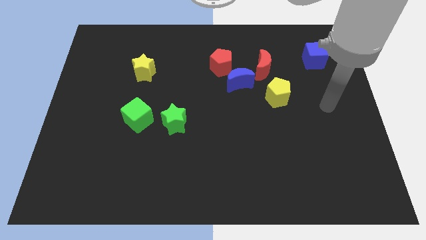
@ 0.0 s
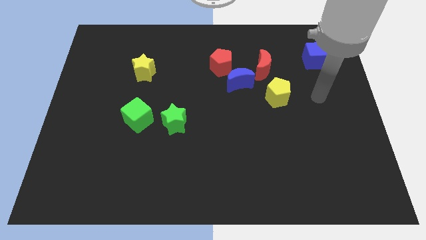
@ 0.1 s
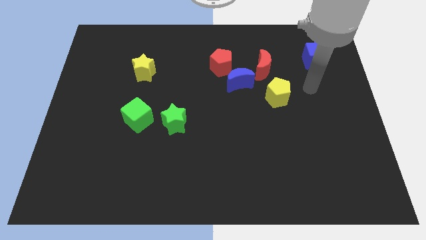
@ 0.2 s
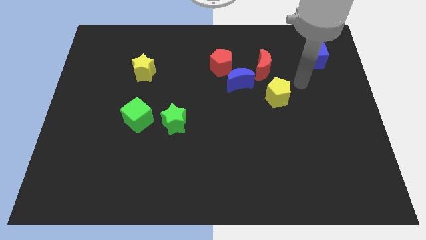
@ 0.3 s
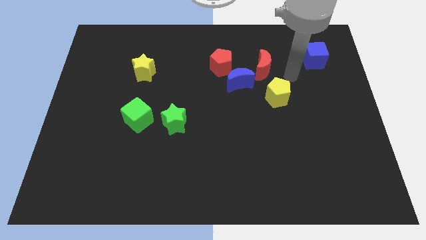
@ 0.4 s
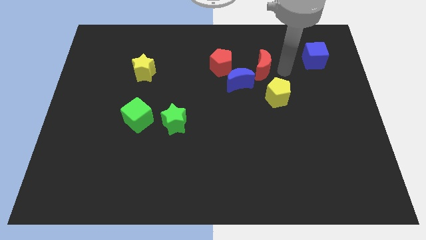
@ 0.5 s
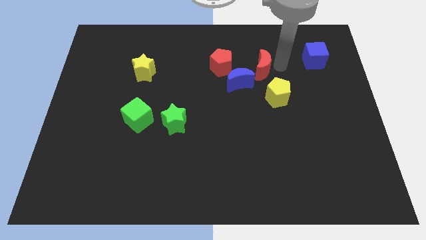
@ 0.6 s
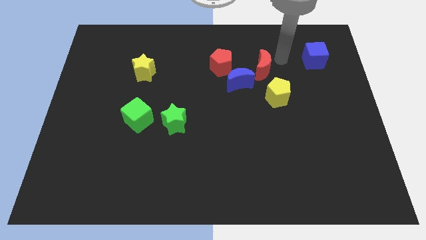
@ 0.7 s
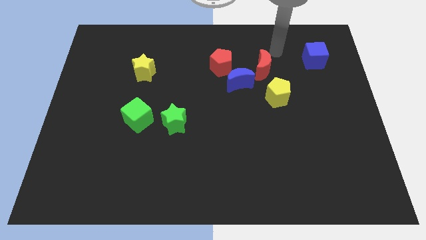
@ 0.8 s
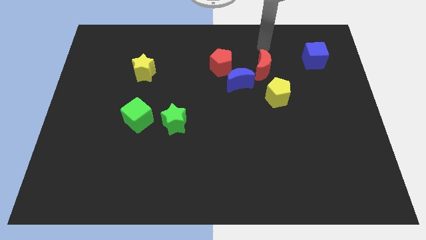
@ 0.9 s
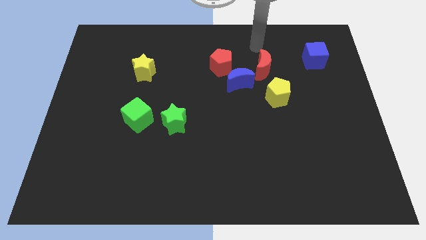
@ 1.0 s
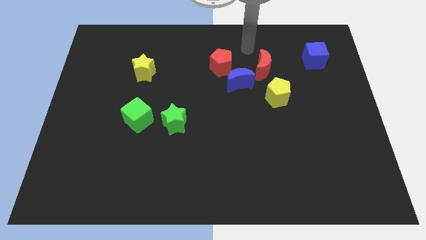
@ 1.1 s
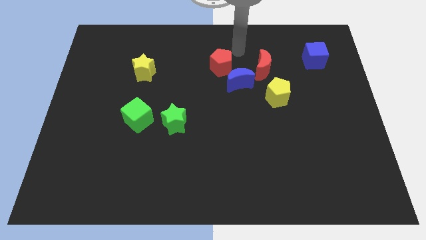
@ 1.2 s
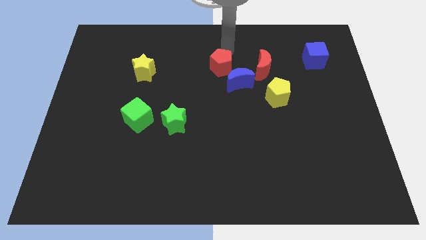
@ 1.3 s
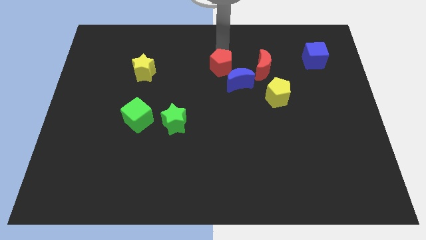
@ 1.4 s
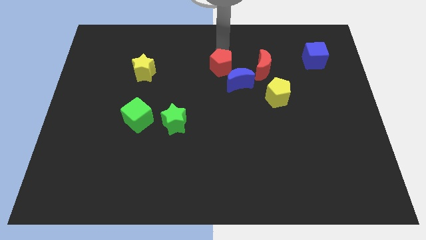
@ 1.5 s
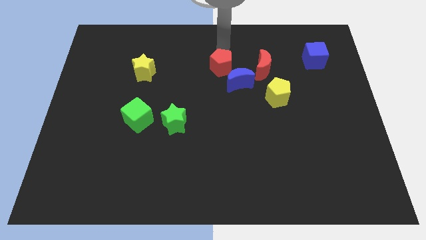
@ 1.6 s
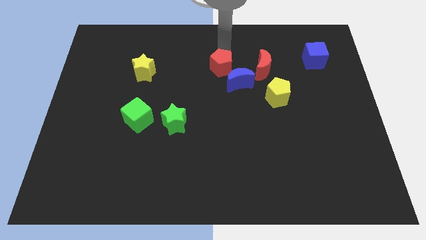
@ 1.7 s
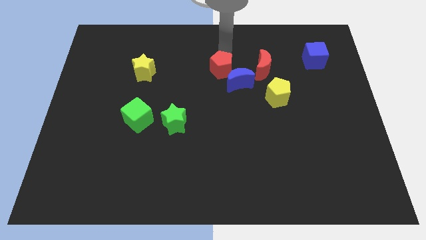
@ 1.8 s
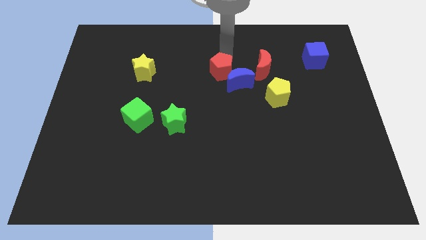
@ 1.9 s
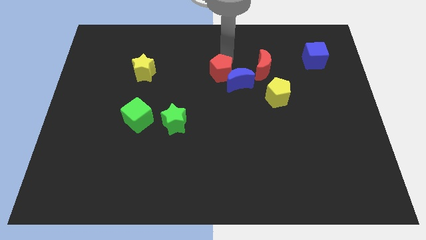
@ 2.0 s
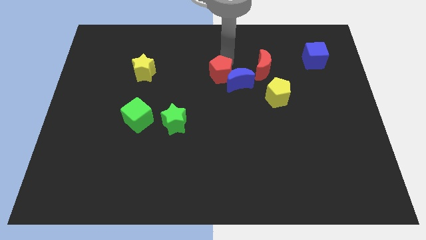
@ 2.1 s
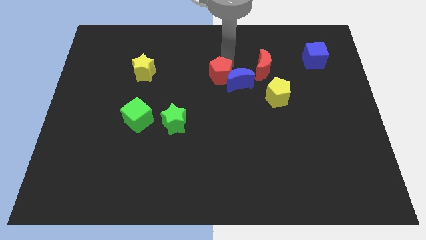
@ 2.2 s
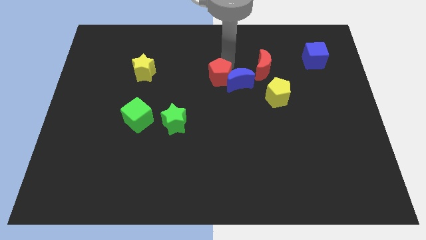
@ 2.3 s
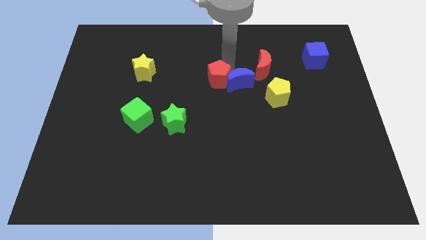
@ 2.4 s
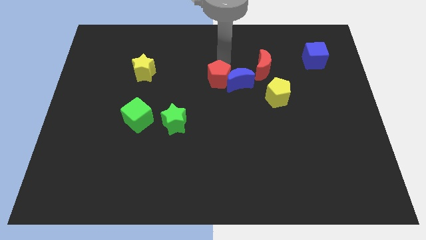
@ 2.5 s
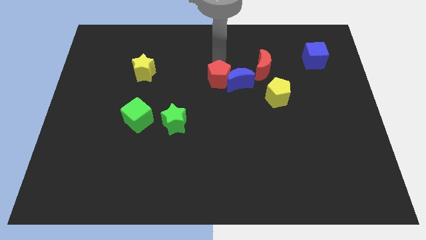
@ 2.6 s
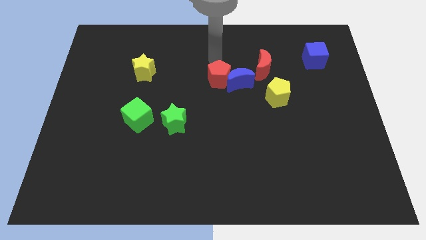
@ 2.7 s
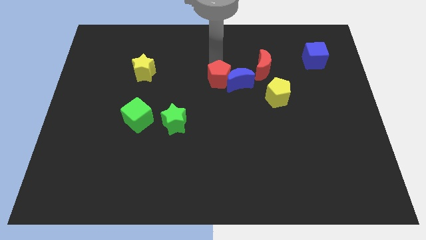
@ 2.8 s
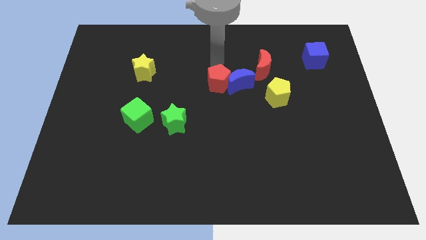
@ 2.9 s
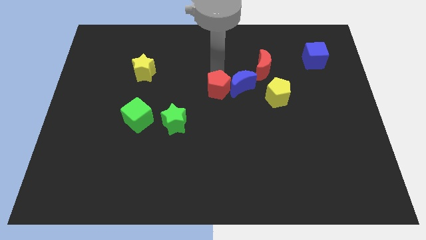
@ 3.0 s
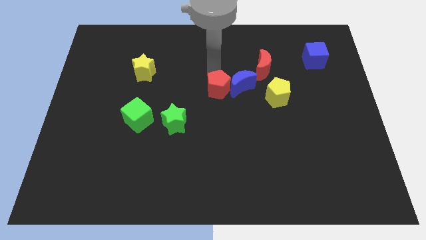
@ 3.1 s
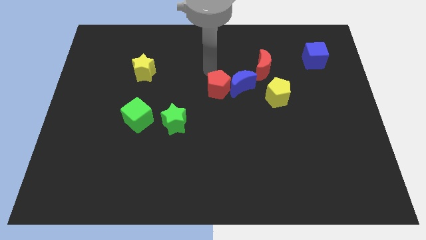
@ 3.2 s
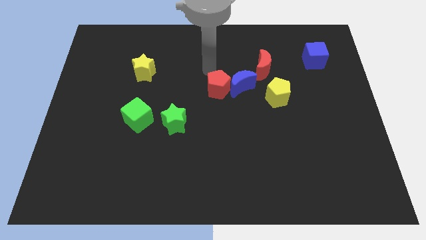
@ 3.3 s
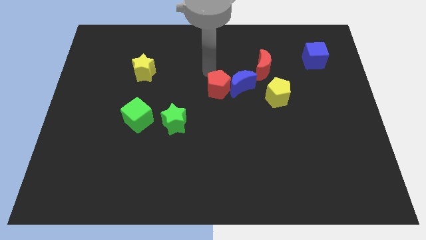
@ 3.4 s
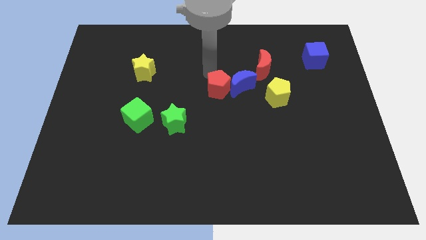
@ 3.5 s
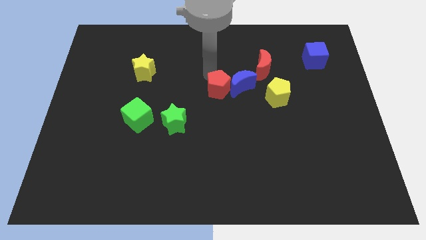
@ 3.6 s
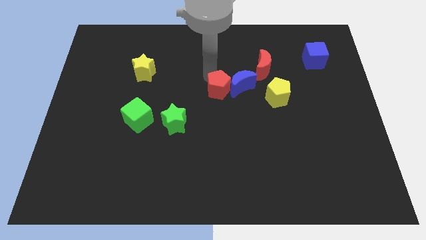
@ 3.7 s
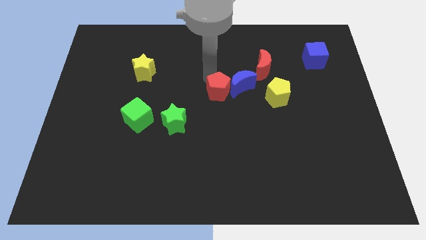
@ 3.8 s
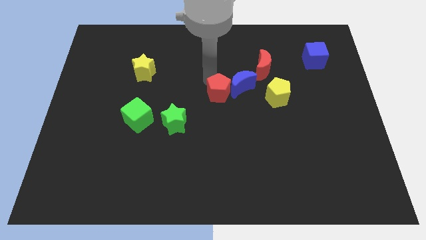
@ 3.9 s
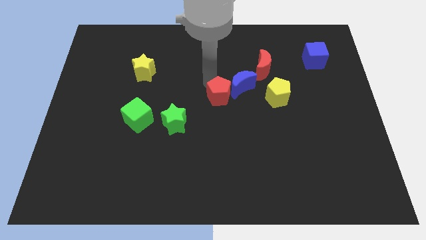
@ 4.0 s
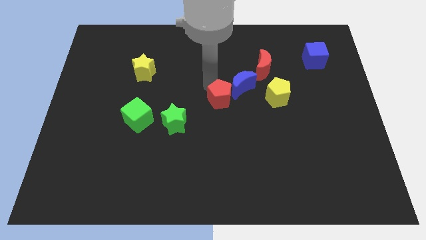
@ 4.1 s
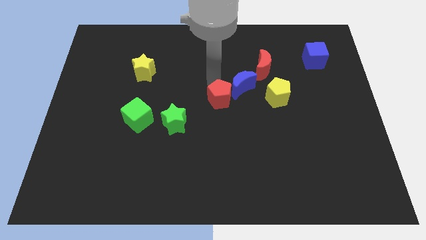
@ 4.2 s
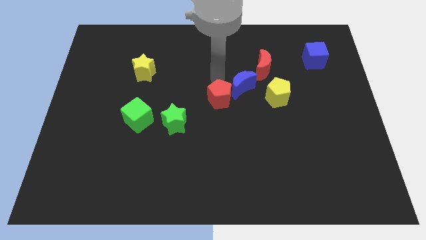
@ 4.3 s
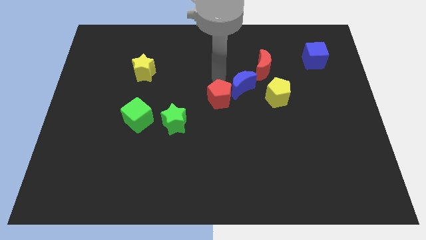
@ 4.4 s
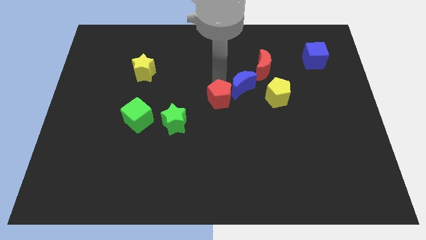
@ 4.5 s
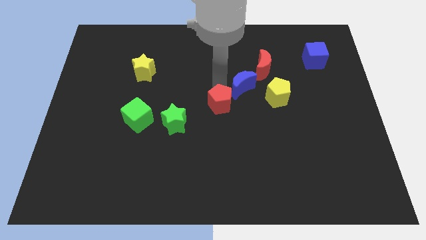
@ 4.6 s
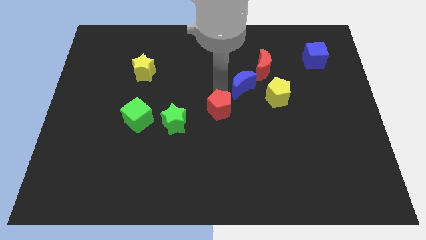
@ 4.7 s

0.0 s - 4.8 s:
push the red pentagon right of the green star

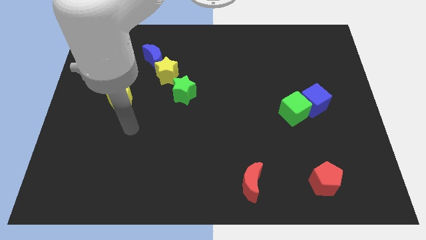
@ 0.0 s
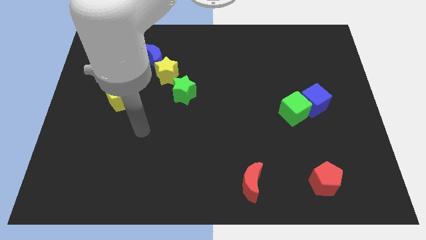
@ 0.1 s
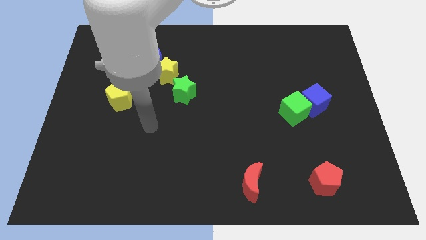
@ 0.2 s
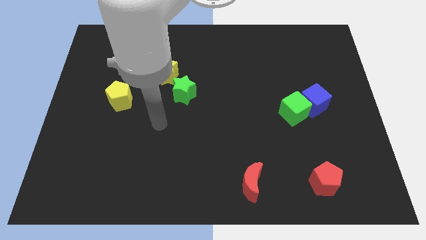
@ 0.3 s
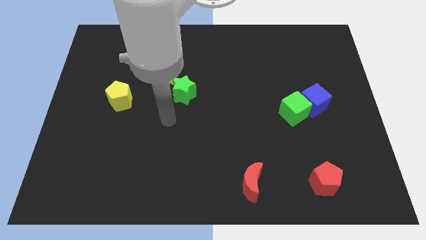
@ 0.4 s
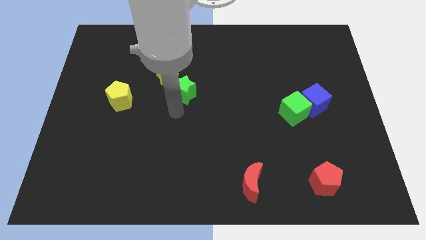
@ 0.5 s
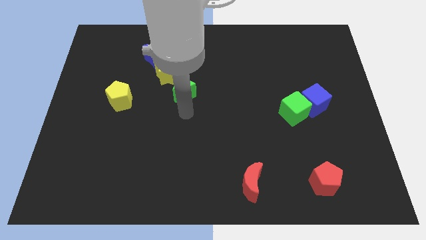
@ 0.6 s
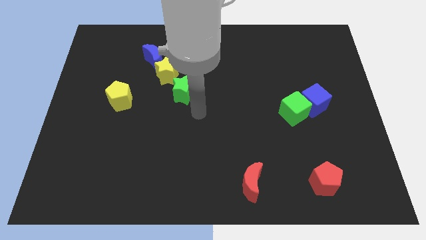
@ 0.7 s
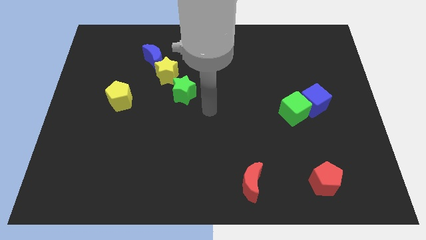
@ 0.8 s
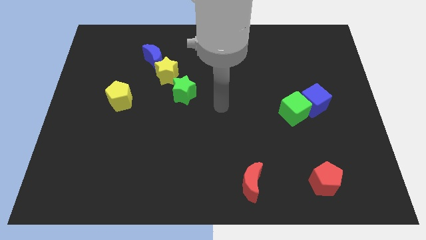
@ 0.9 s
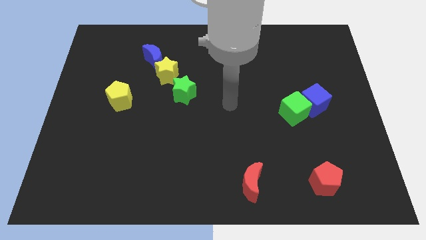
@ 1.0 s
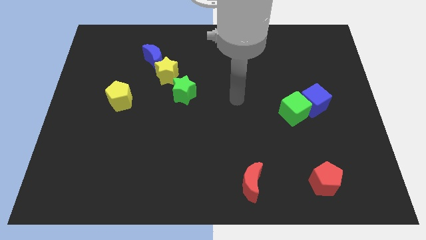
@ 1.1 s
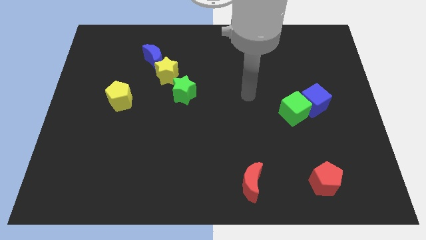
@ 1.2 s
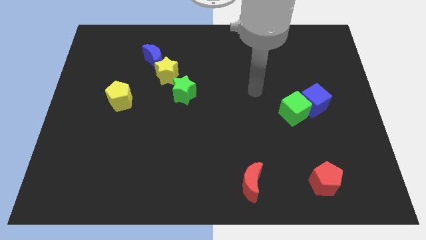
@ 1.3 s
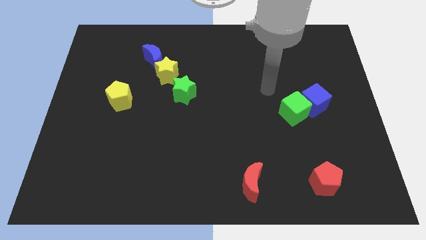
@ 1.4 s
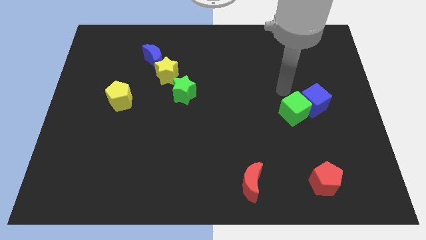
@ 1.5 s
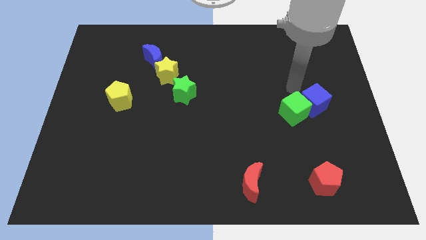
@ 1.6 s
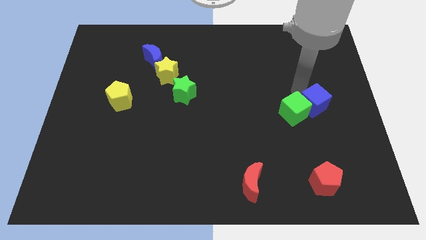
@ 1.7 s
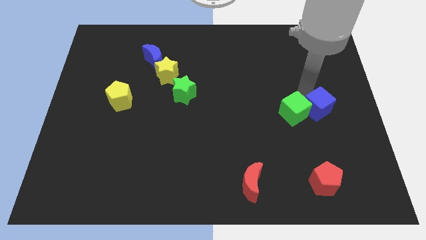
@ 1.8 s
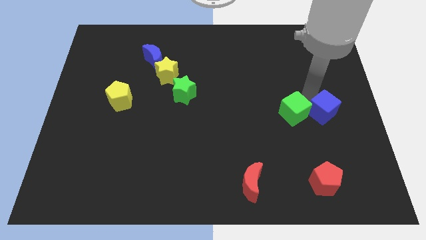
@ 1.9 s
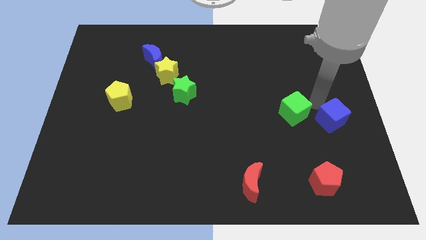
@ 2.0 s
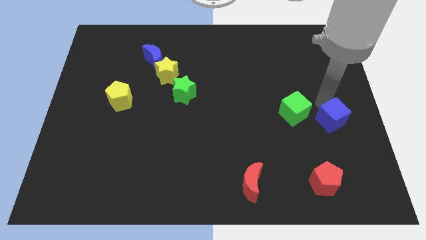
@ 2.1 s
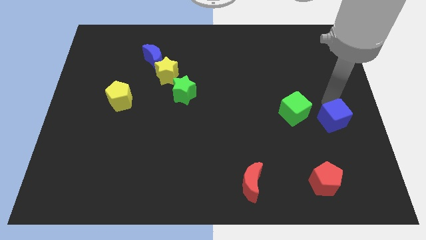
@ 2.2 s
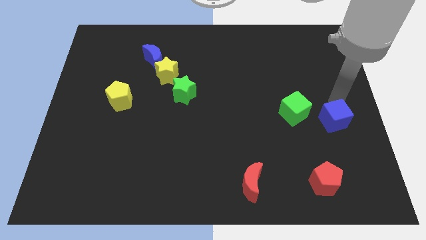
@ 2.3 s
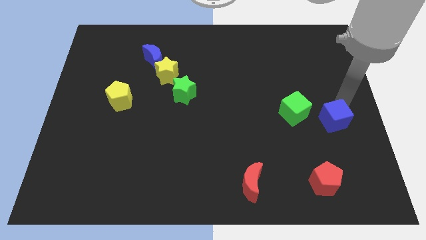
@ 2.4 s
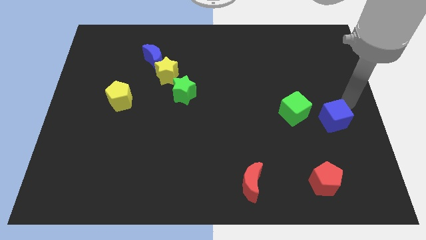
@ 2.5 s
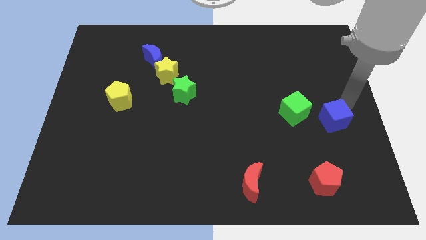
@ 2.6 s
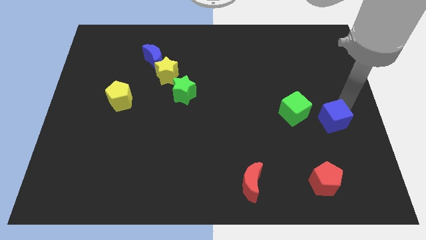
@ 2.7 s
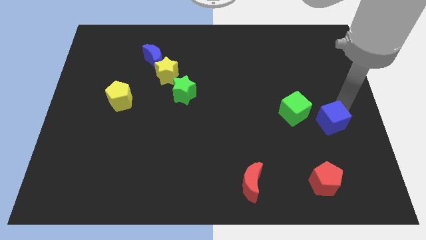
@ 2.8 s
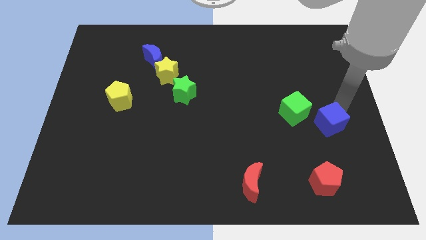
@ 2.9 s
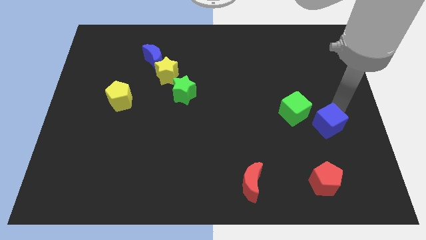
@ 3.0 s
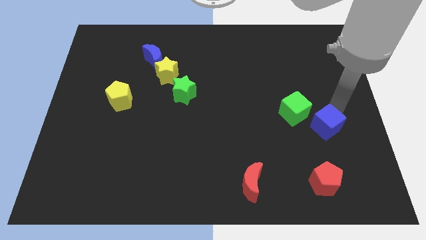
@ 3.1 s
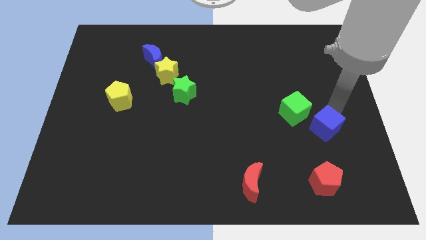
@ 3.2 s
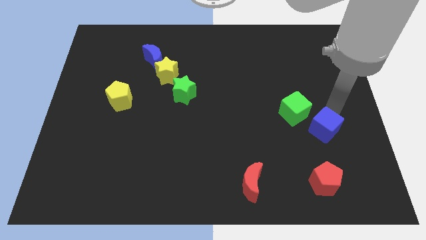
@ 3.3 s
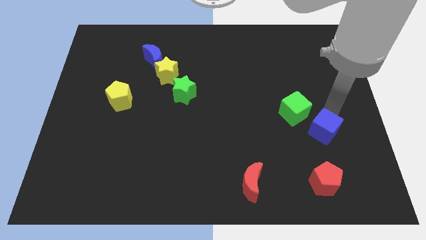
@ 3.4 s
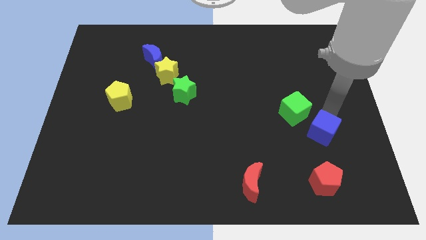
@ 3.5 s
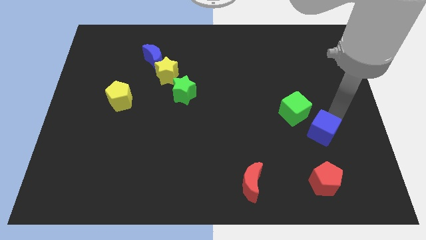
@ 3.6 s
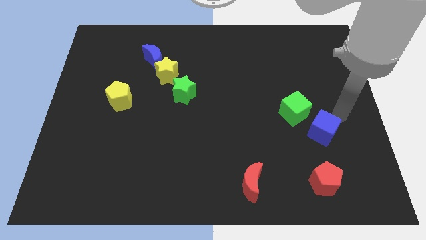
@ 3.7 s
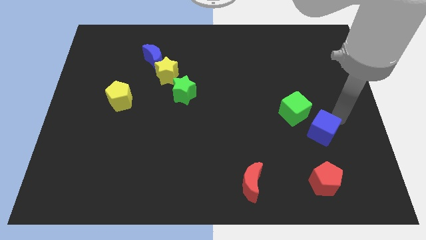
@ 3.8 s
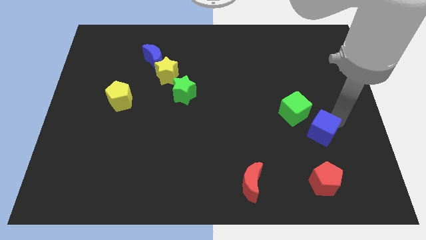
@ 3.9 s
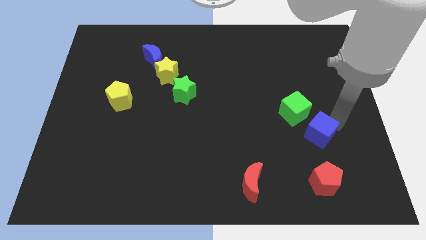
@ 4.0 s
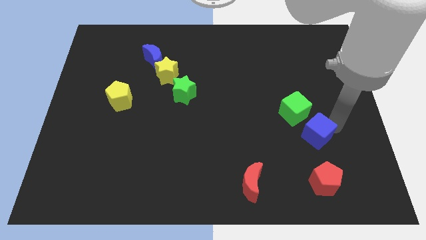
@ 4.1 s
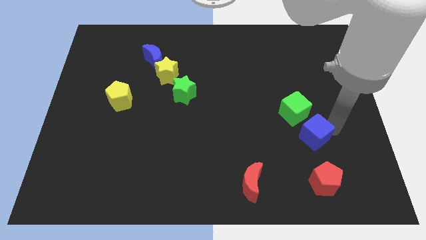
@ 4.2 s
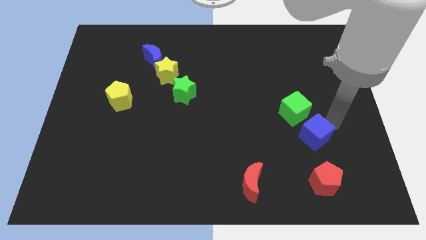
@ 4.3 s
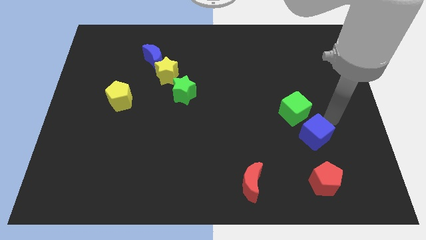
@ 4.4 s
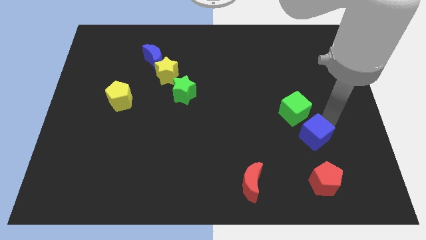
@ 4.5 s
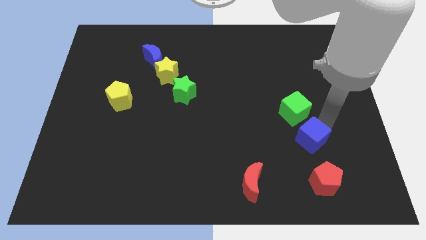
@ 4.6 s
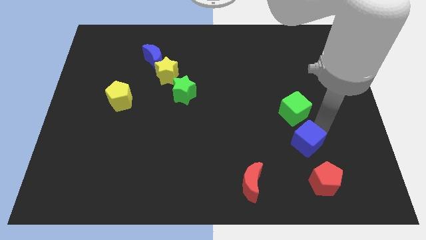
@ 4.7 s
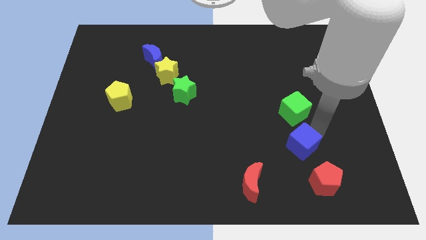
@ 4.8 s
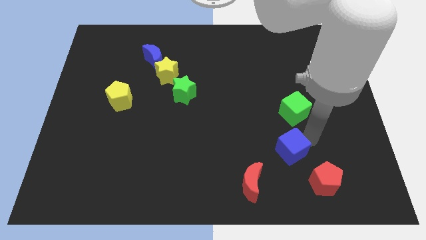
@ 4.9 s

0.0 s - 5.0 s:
put the blue cube to the top right side of the red moon
